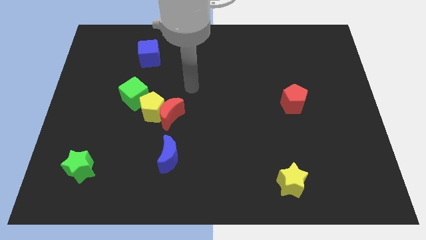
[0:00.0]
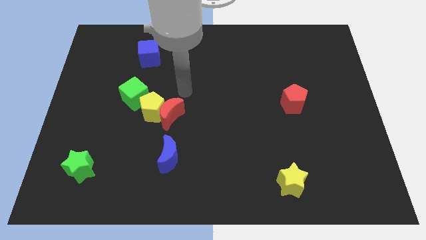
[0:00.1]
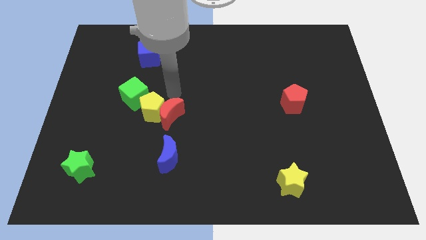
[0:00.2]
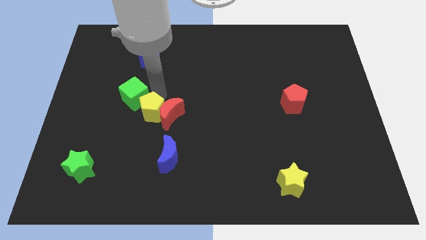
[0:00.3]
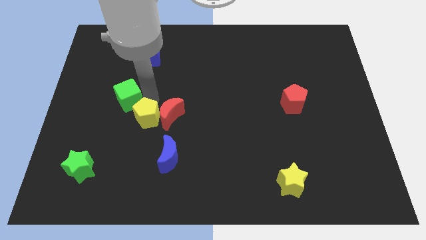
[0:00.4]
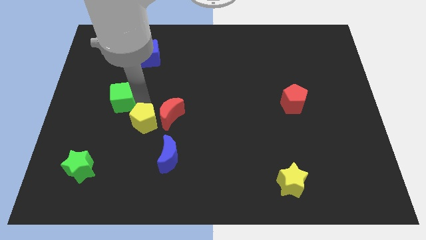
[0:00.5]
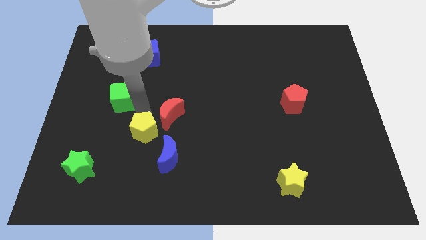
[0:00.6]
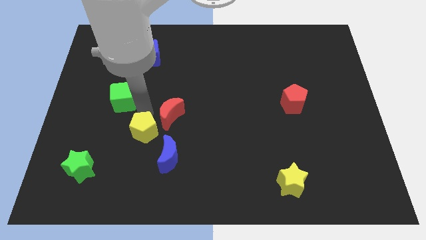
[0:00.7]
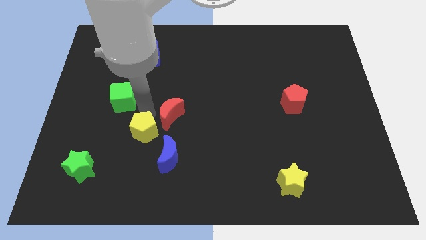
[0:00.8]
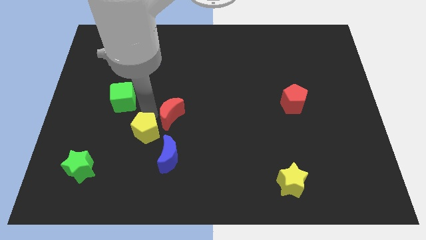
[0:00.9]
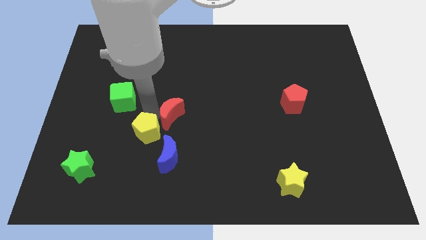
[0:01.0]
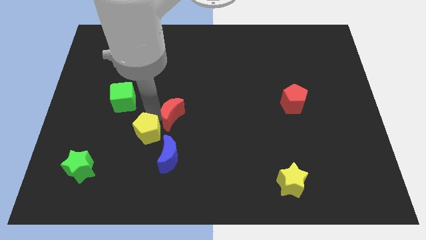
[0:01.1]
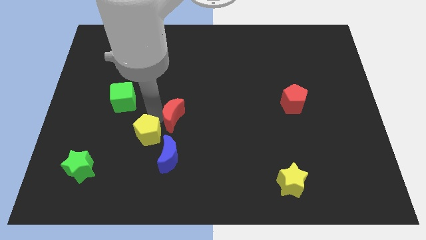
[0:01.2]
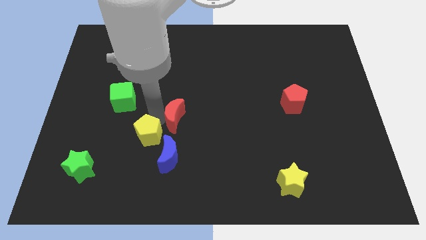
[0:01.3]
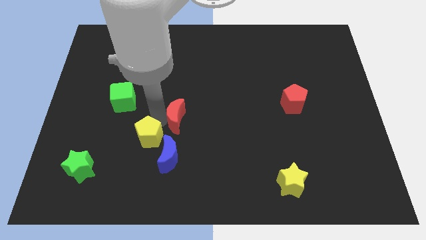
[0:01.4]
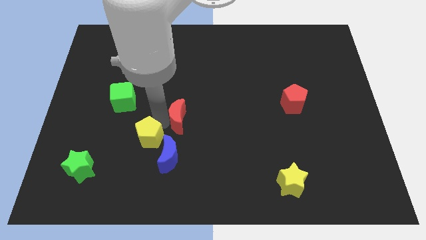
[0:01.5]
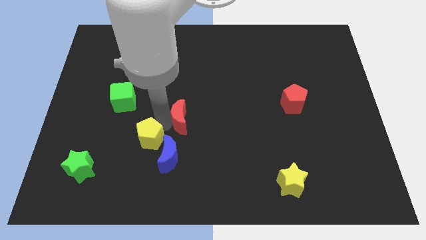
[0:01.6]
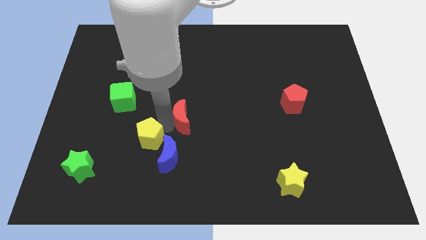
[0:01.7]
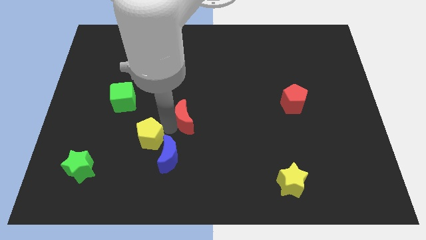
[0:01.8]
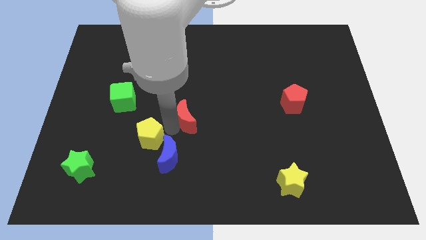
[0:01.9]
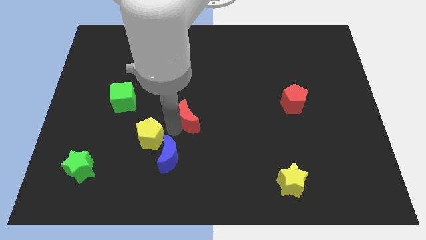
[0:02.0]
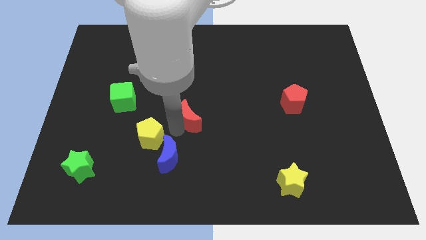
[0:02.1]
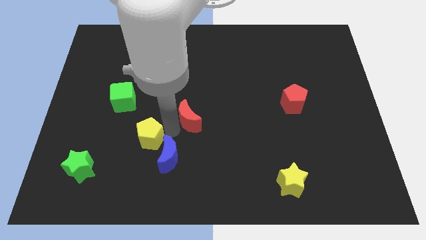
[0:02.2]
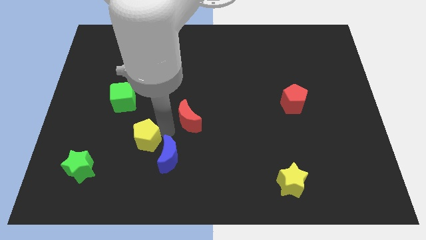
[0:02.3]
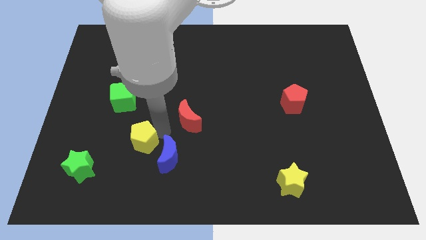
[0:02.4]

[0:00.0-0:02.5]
move the red moon away from the yellow pentagon

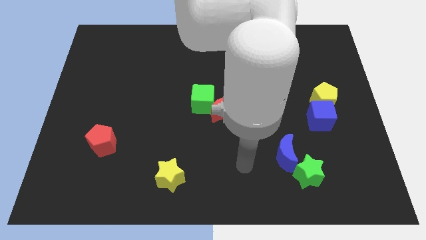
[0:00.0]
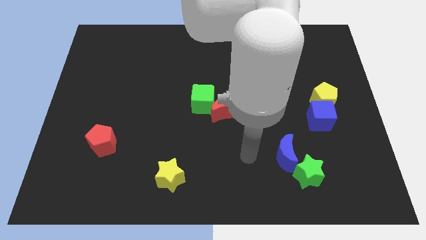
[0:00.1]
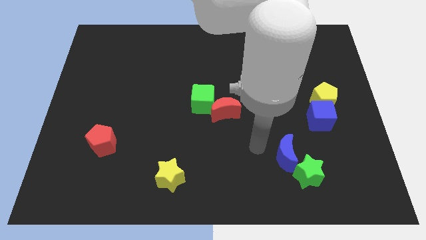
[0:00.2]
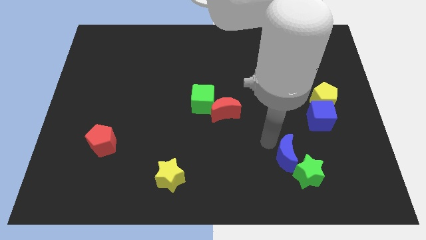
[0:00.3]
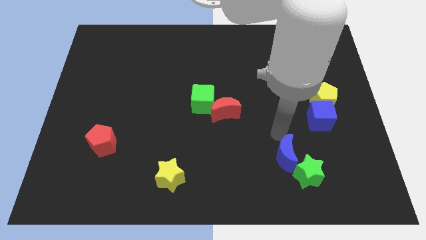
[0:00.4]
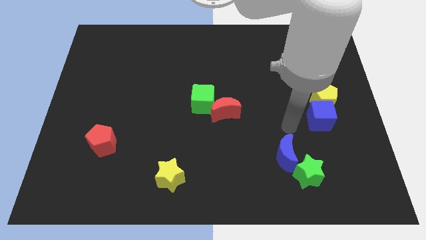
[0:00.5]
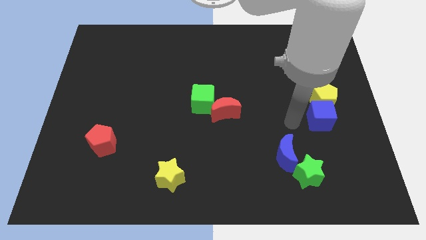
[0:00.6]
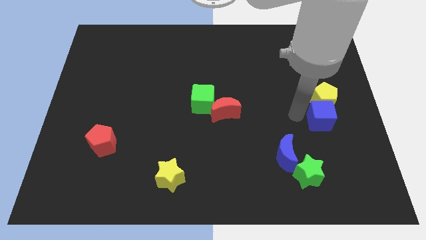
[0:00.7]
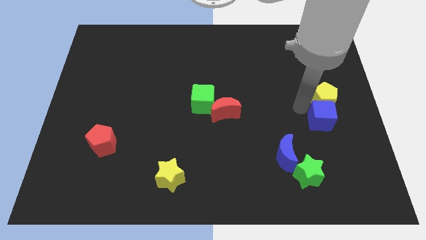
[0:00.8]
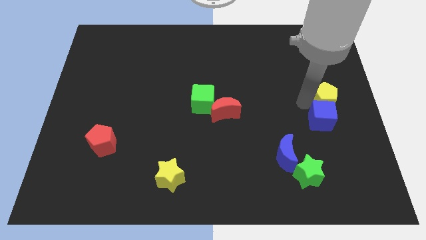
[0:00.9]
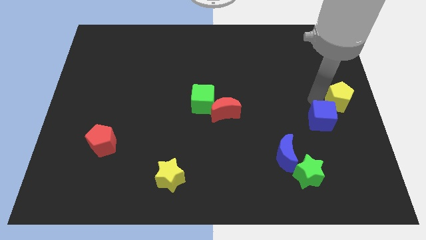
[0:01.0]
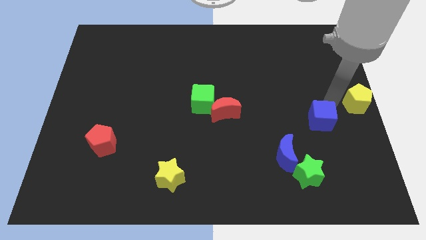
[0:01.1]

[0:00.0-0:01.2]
separate the blue cube from the yellow pentagon

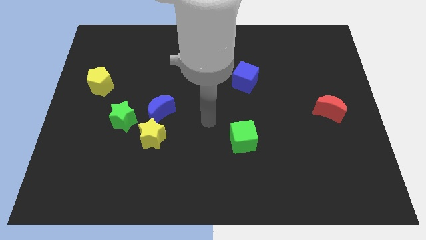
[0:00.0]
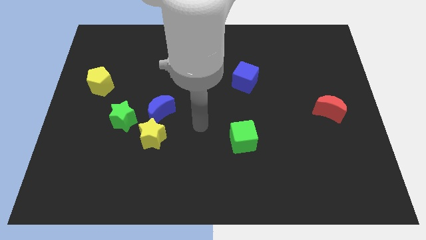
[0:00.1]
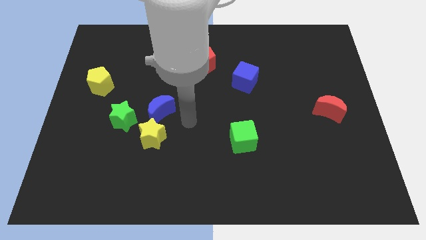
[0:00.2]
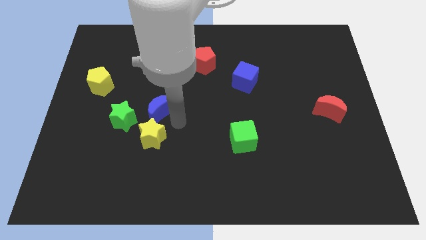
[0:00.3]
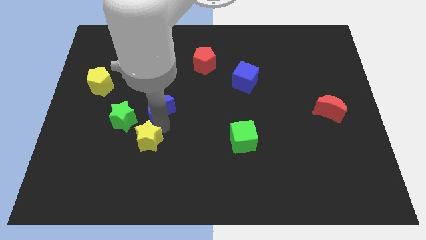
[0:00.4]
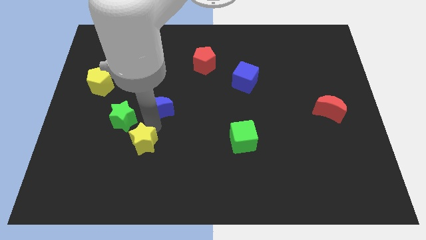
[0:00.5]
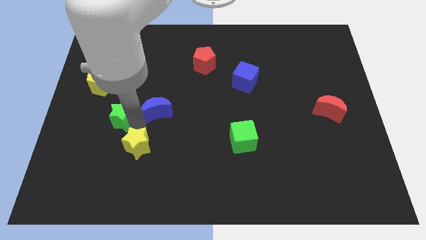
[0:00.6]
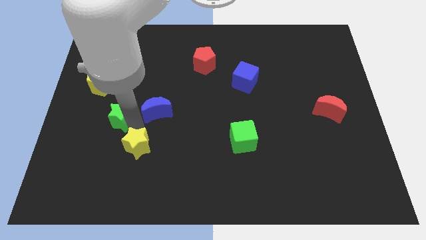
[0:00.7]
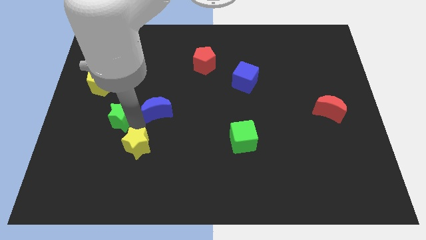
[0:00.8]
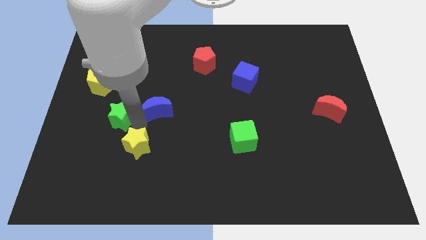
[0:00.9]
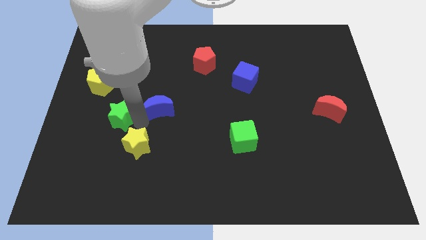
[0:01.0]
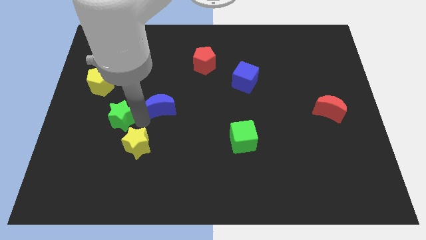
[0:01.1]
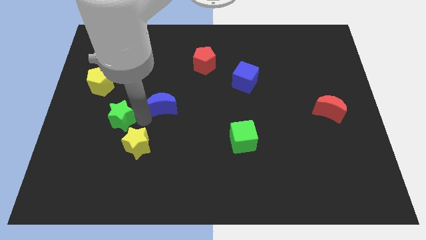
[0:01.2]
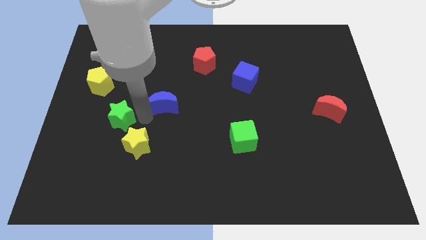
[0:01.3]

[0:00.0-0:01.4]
move the blue moon away from the yellow star and green star

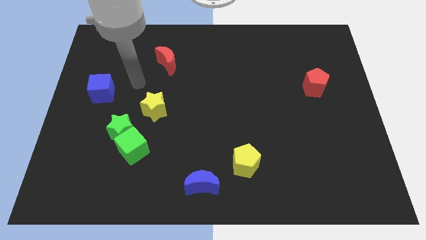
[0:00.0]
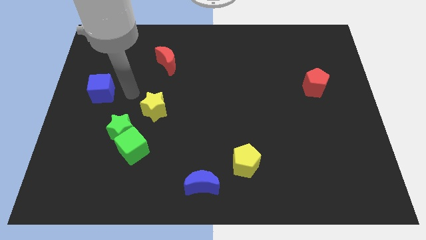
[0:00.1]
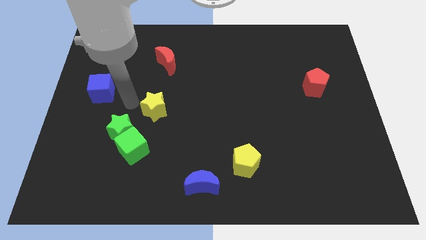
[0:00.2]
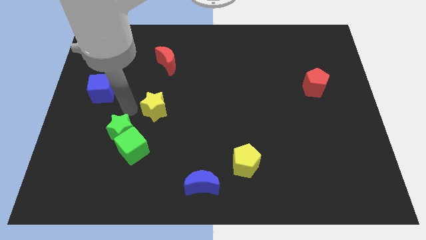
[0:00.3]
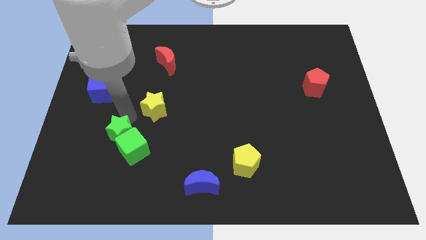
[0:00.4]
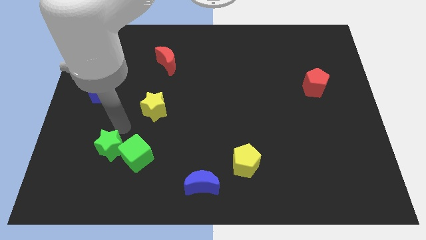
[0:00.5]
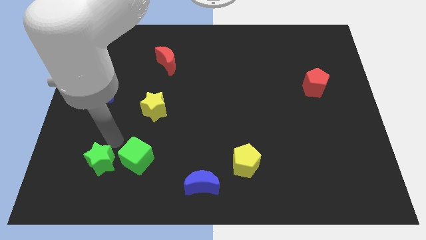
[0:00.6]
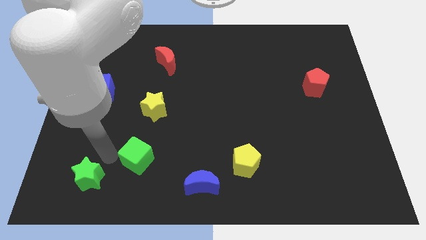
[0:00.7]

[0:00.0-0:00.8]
move the green cube away from the green star

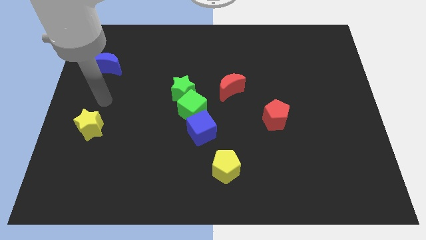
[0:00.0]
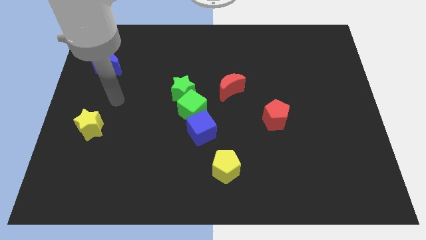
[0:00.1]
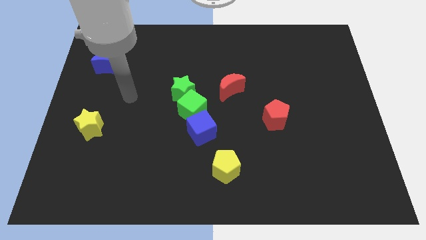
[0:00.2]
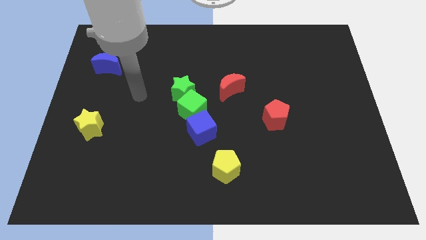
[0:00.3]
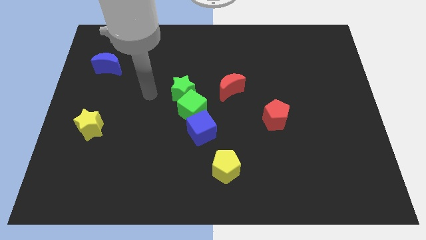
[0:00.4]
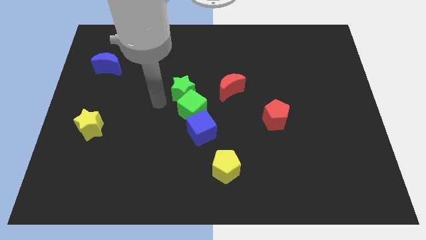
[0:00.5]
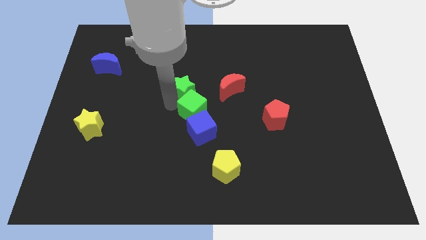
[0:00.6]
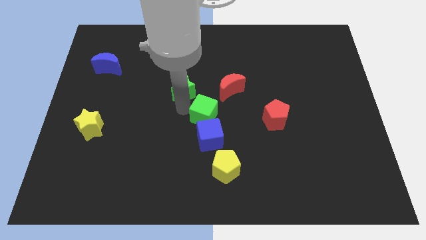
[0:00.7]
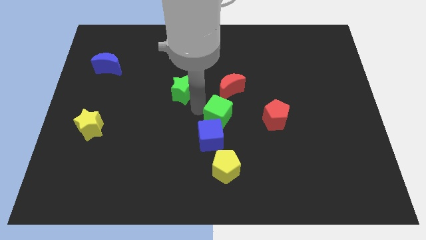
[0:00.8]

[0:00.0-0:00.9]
move the green star away from the green cube

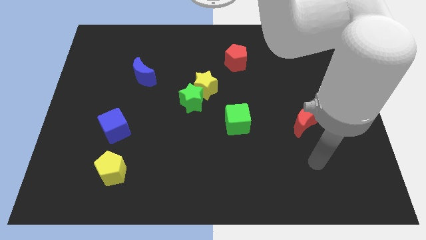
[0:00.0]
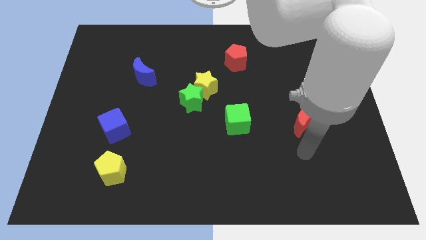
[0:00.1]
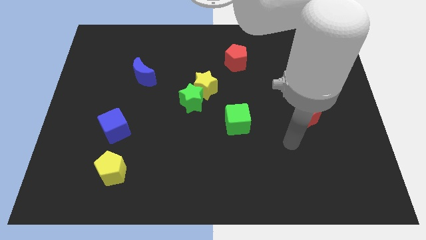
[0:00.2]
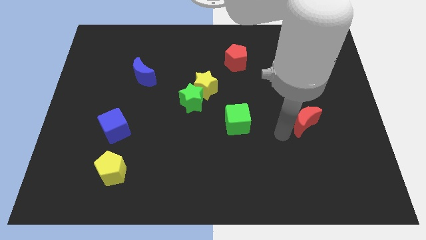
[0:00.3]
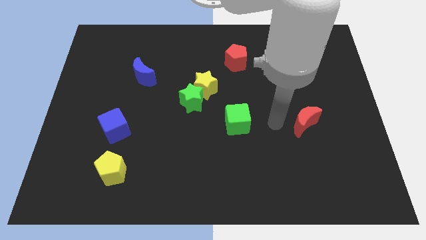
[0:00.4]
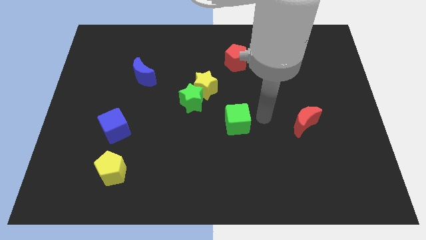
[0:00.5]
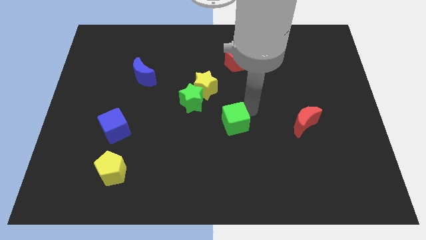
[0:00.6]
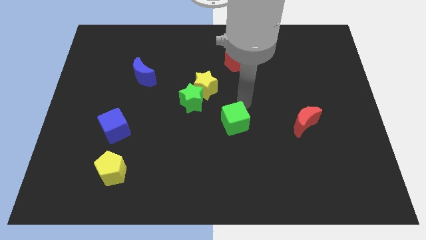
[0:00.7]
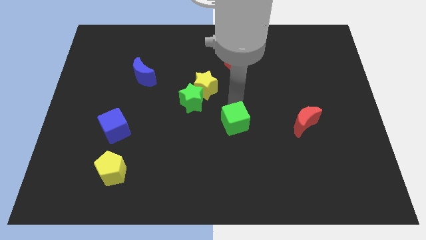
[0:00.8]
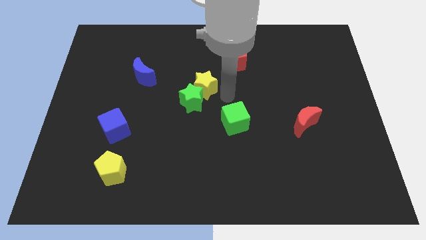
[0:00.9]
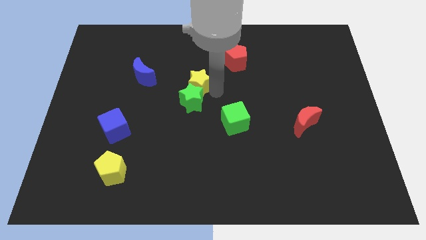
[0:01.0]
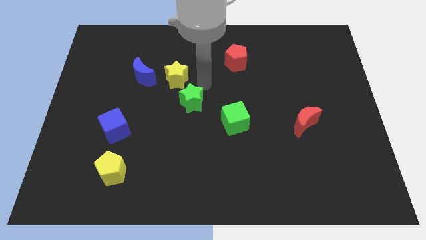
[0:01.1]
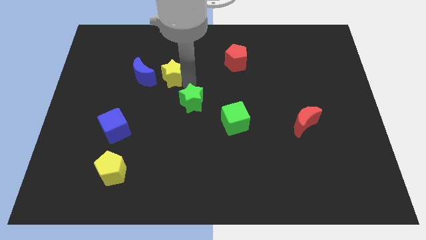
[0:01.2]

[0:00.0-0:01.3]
pull the green star apart from the yellow star

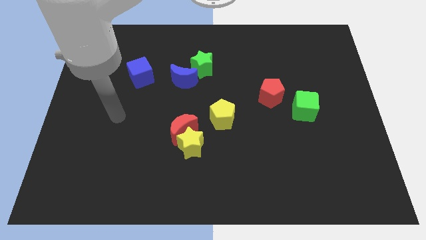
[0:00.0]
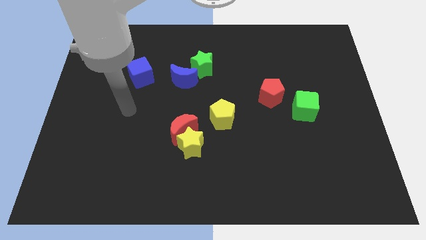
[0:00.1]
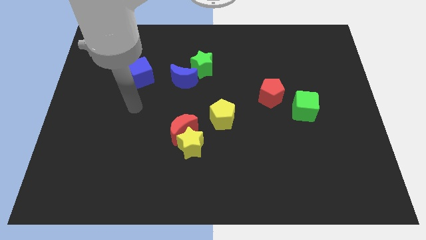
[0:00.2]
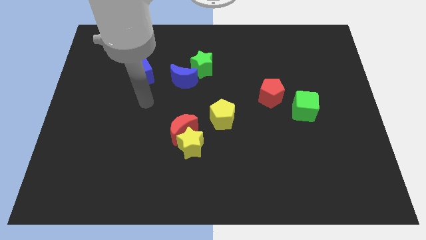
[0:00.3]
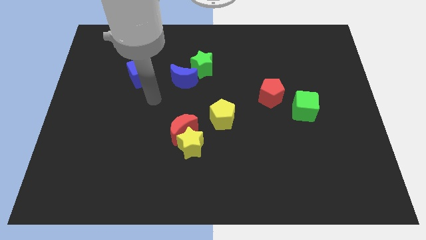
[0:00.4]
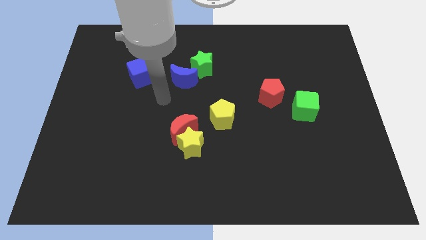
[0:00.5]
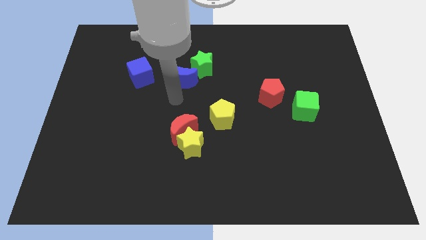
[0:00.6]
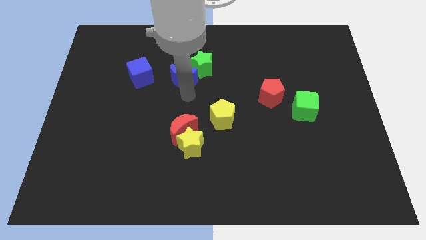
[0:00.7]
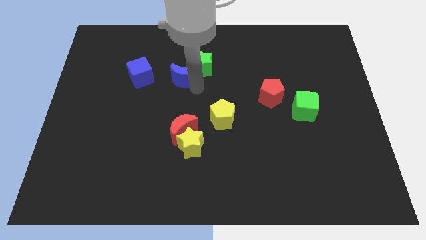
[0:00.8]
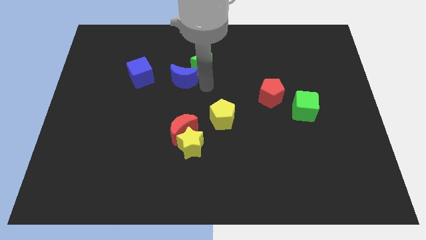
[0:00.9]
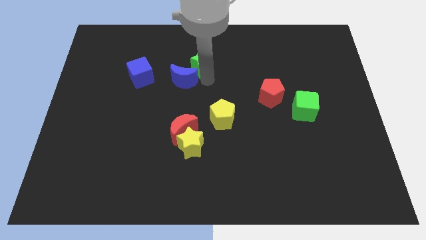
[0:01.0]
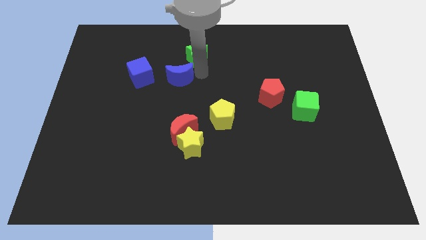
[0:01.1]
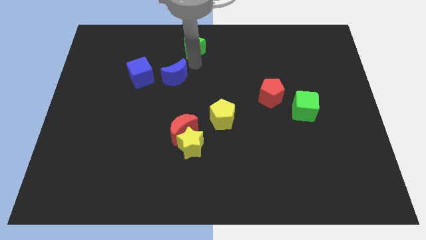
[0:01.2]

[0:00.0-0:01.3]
move the blue moon away from the green star
